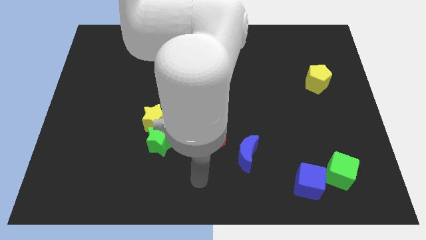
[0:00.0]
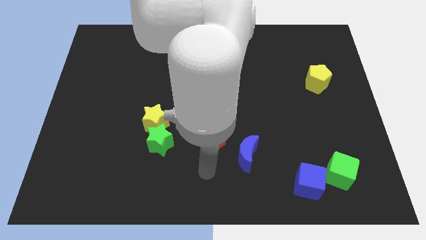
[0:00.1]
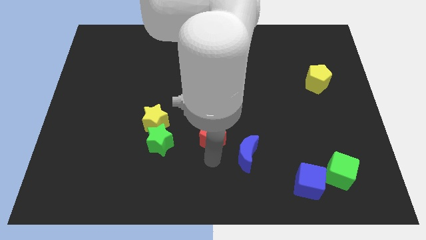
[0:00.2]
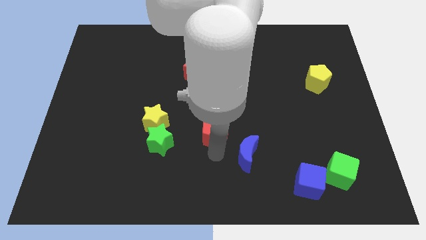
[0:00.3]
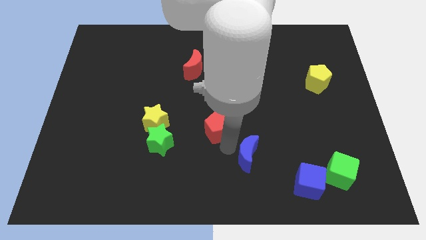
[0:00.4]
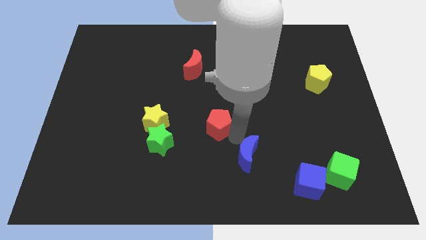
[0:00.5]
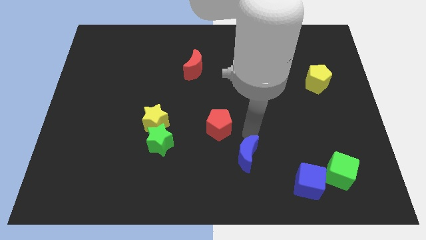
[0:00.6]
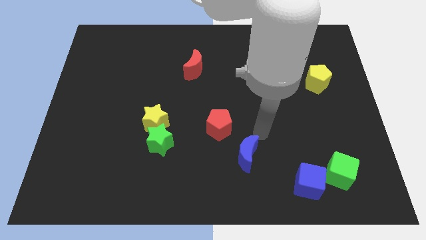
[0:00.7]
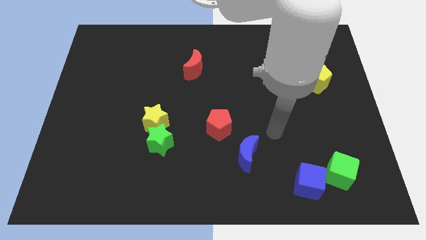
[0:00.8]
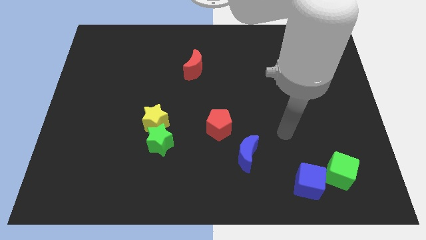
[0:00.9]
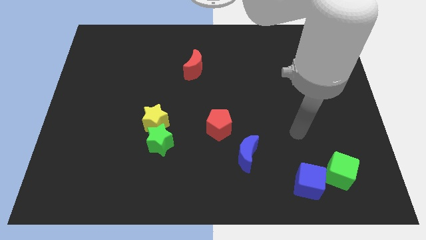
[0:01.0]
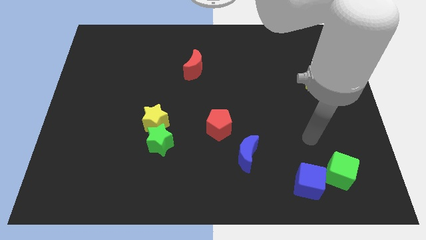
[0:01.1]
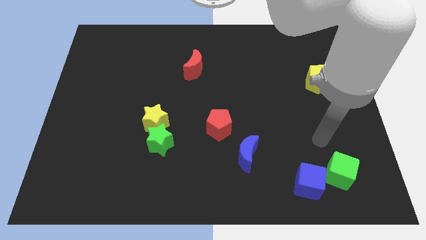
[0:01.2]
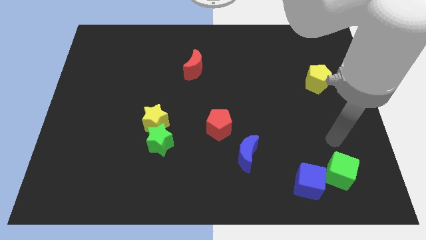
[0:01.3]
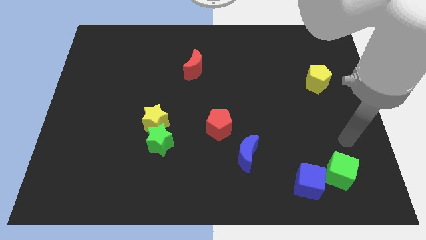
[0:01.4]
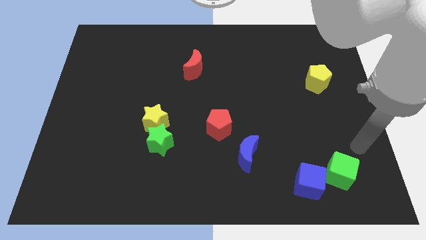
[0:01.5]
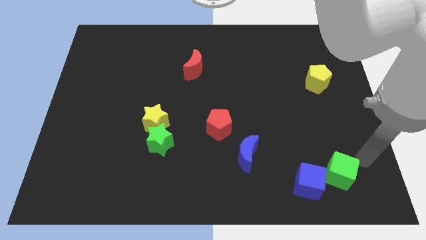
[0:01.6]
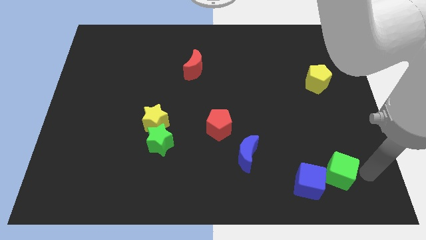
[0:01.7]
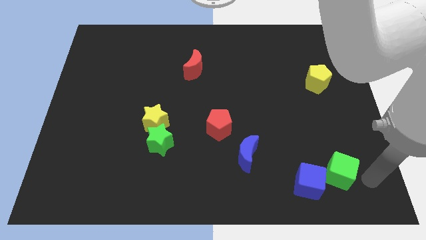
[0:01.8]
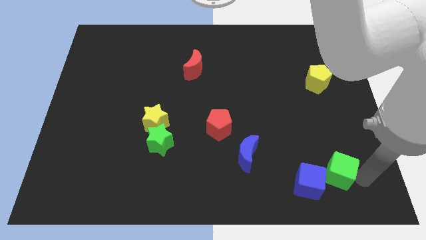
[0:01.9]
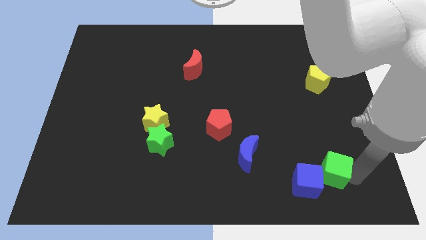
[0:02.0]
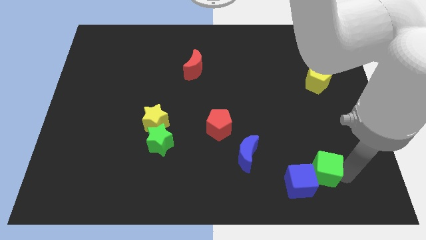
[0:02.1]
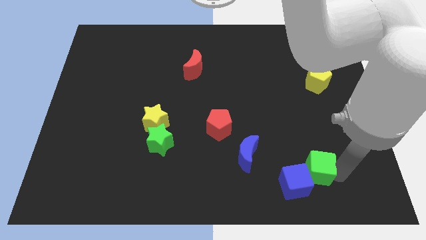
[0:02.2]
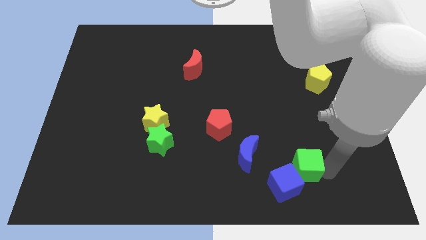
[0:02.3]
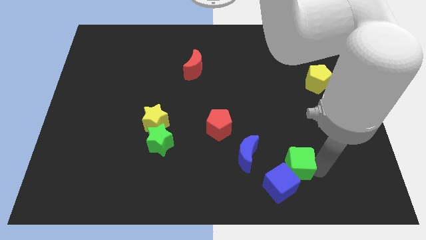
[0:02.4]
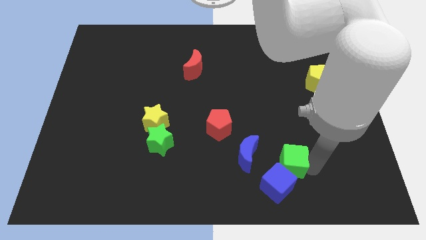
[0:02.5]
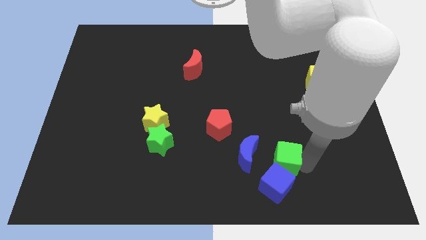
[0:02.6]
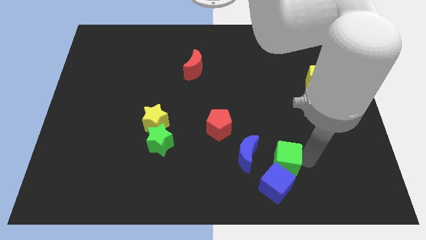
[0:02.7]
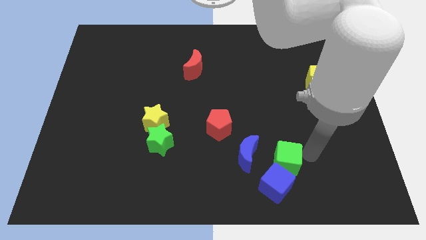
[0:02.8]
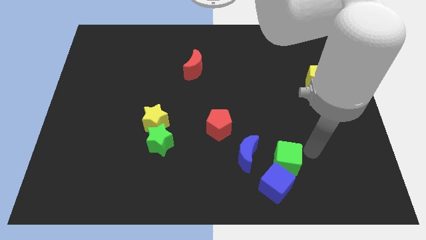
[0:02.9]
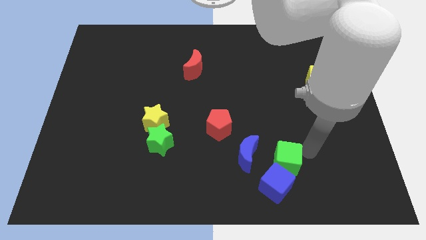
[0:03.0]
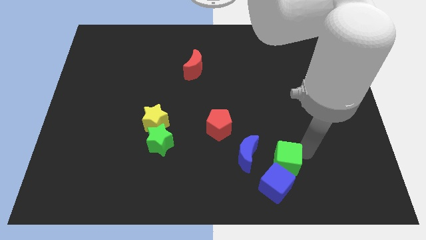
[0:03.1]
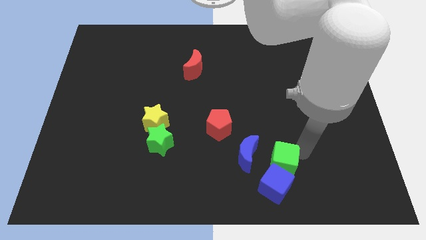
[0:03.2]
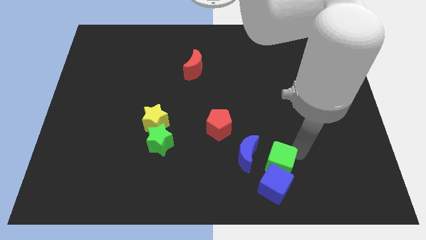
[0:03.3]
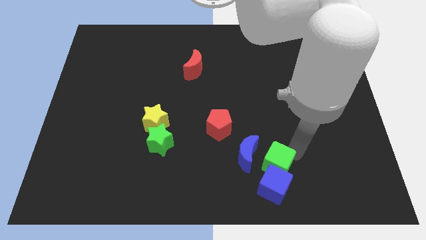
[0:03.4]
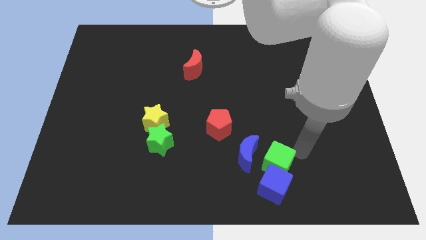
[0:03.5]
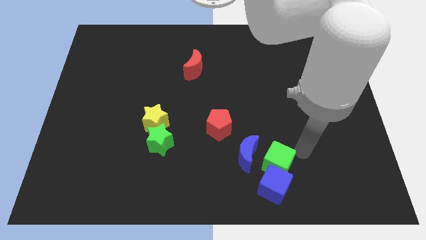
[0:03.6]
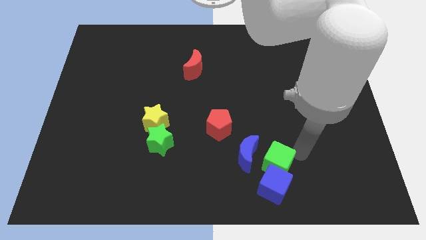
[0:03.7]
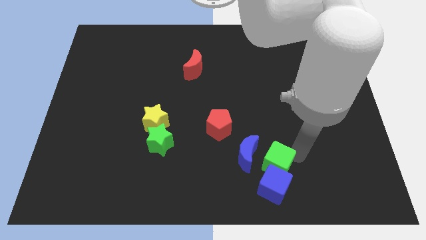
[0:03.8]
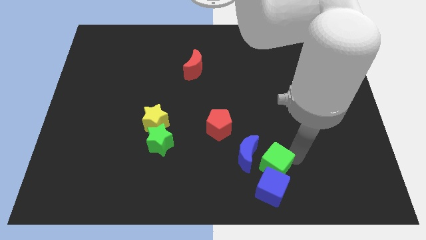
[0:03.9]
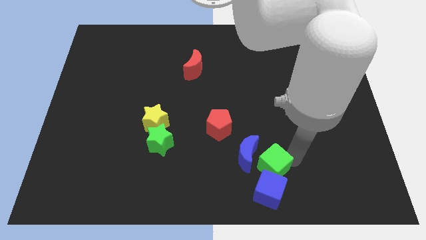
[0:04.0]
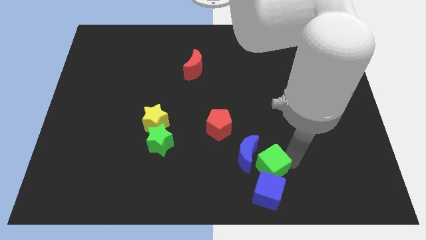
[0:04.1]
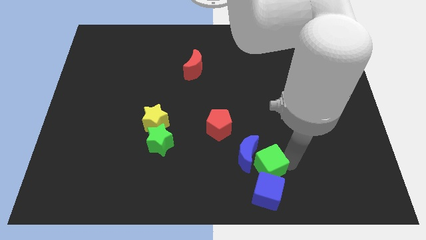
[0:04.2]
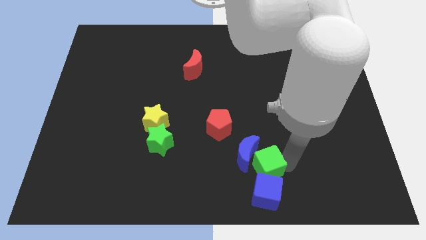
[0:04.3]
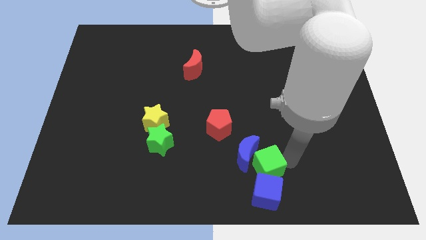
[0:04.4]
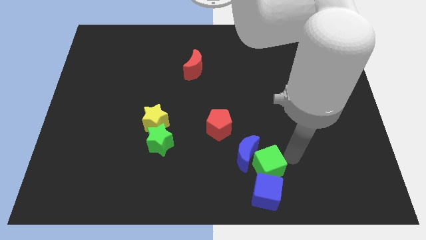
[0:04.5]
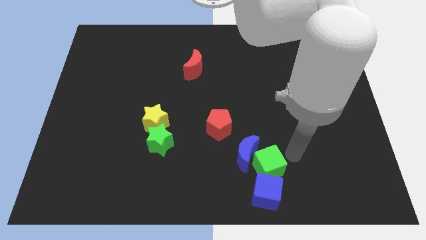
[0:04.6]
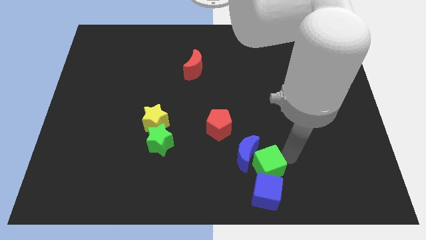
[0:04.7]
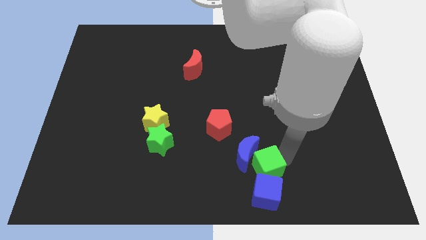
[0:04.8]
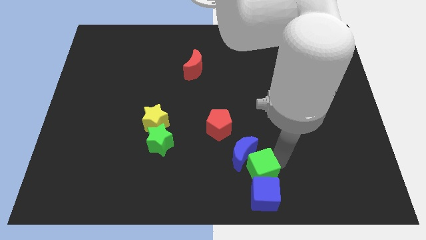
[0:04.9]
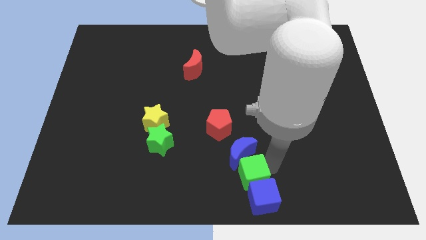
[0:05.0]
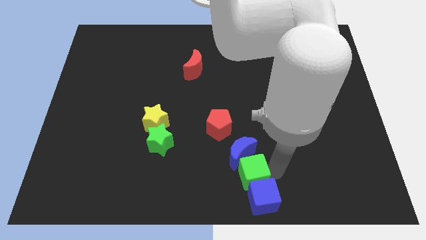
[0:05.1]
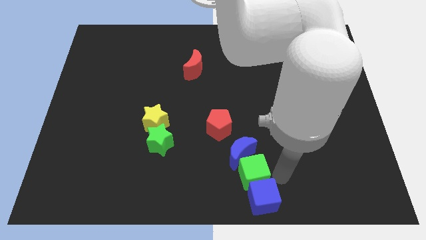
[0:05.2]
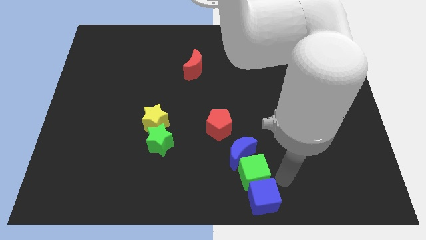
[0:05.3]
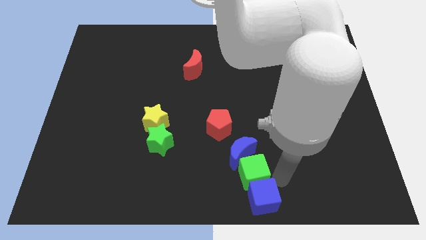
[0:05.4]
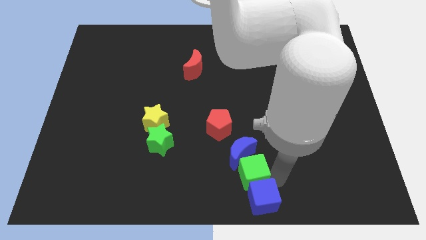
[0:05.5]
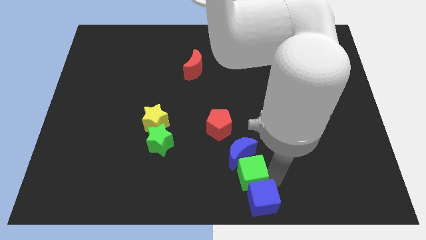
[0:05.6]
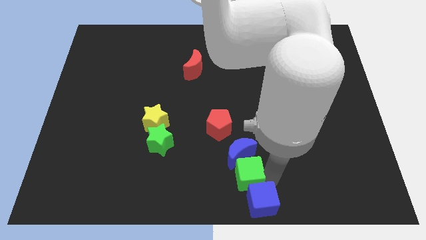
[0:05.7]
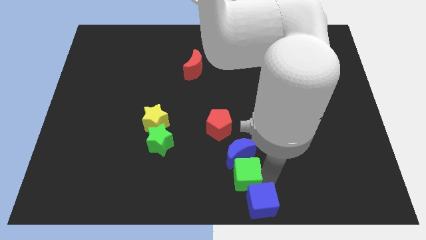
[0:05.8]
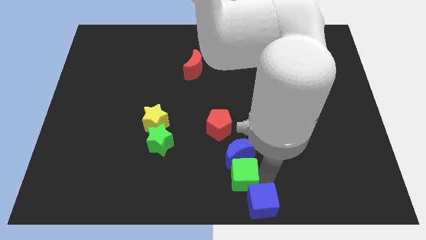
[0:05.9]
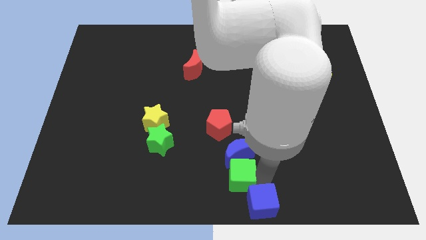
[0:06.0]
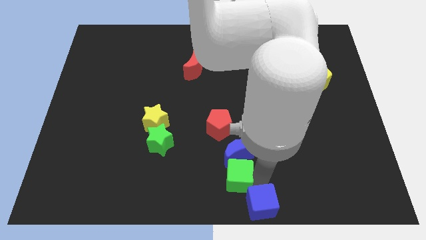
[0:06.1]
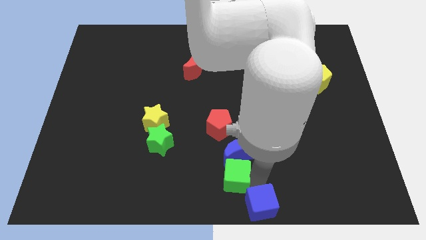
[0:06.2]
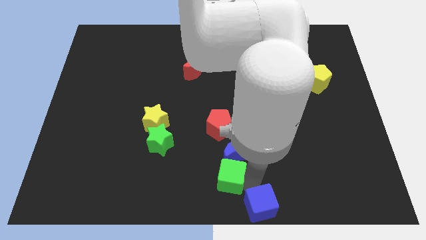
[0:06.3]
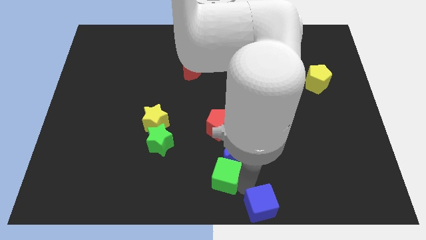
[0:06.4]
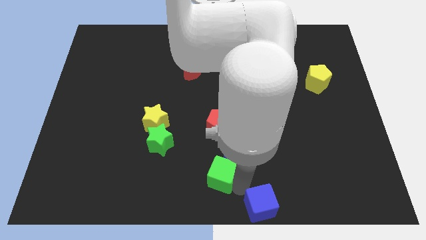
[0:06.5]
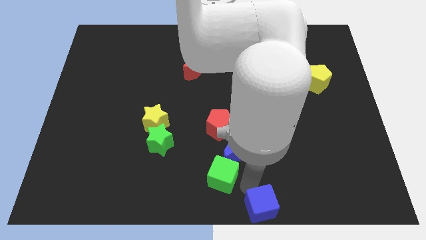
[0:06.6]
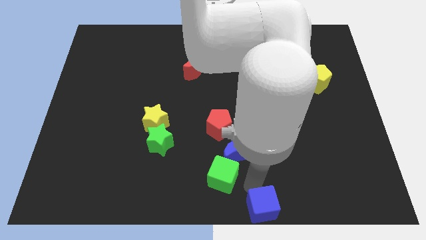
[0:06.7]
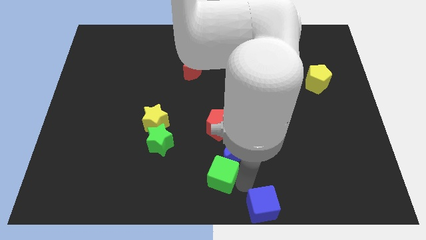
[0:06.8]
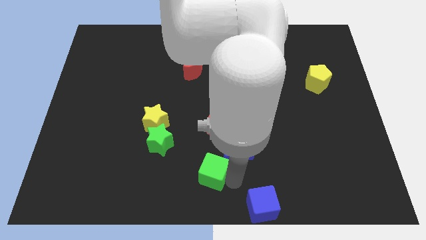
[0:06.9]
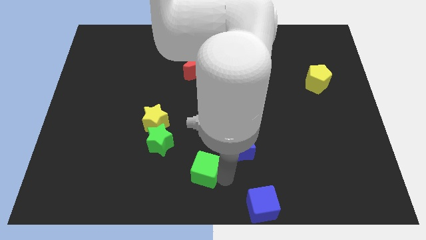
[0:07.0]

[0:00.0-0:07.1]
move the green cube to the bottom right of the green star
